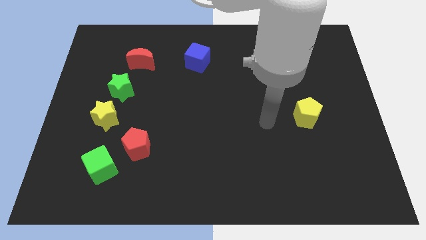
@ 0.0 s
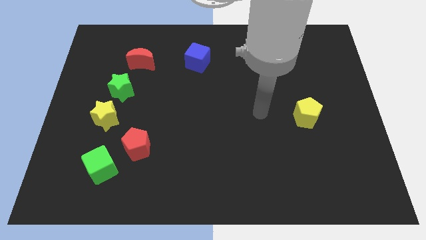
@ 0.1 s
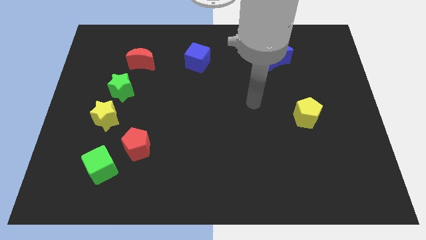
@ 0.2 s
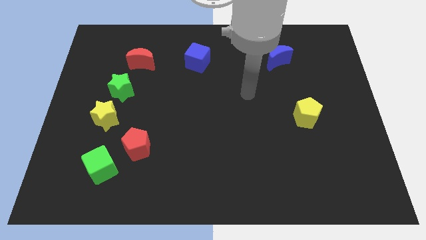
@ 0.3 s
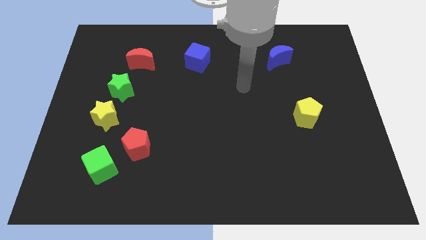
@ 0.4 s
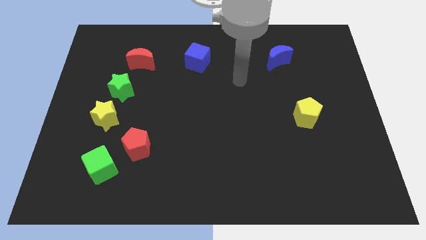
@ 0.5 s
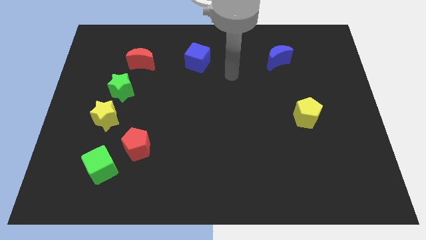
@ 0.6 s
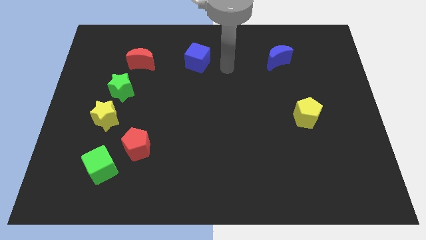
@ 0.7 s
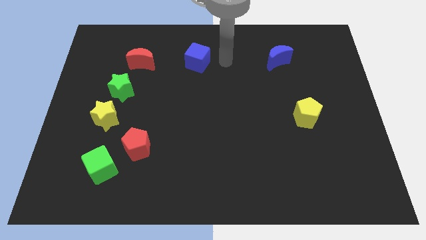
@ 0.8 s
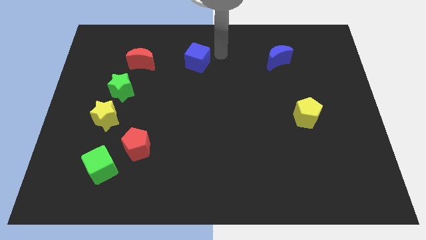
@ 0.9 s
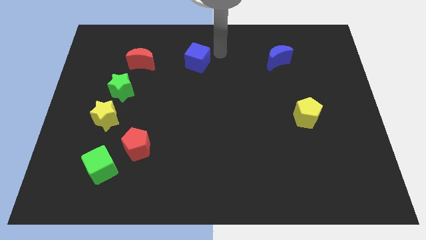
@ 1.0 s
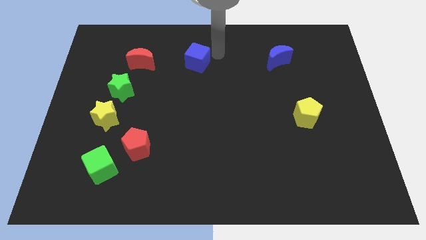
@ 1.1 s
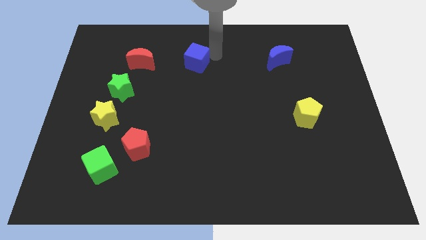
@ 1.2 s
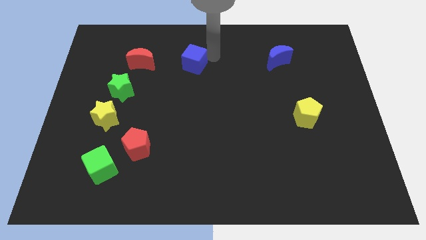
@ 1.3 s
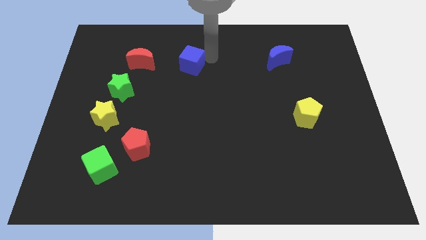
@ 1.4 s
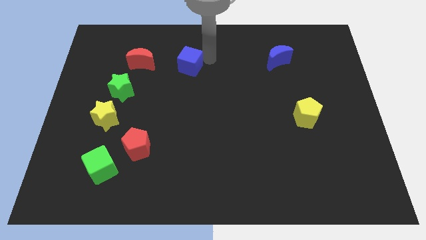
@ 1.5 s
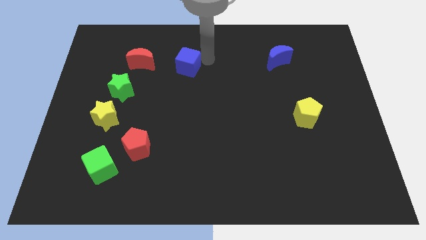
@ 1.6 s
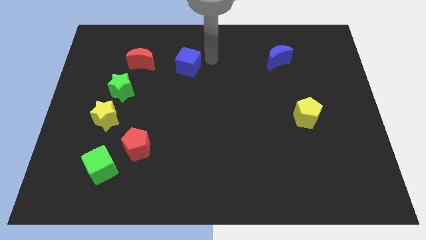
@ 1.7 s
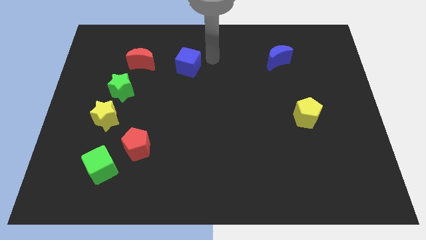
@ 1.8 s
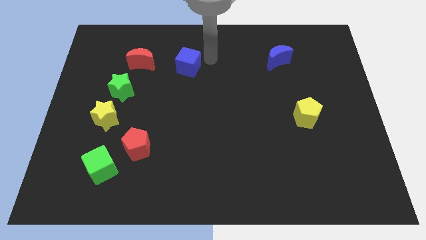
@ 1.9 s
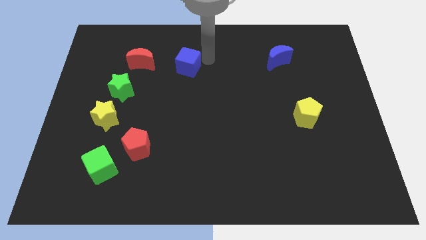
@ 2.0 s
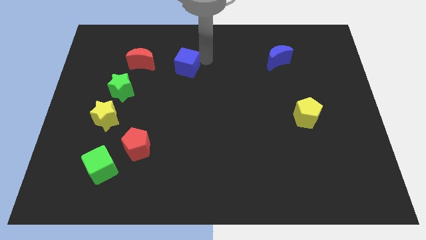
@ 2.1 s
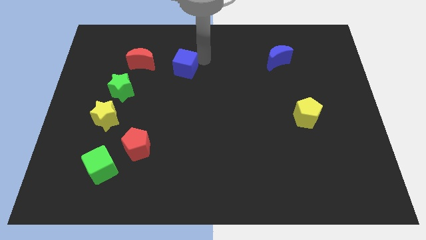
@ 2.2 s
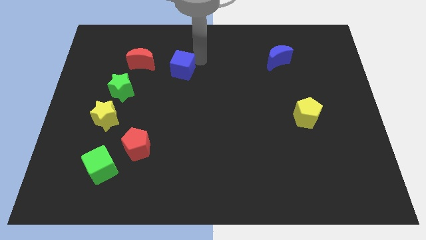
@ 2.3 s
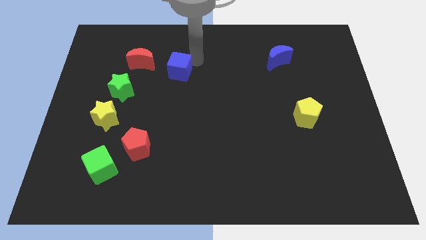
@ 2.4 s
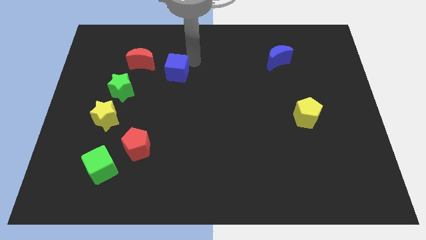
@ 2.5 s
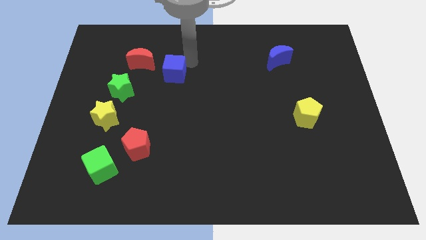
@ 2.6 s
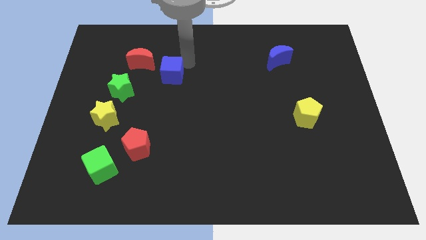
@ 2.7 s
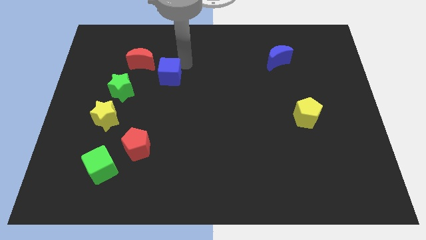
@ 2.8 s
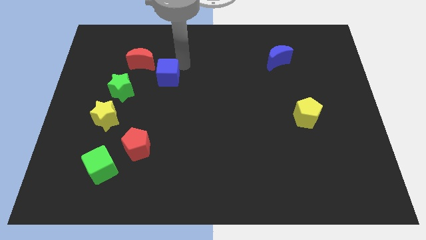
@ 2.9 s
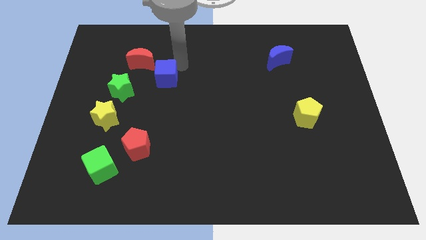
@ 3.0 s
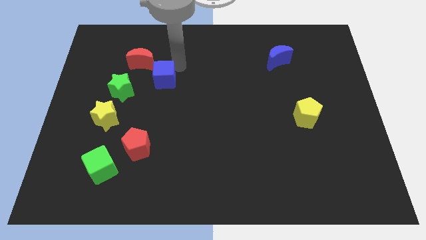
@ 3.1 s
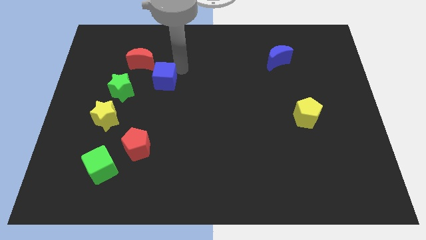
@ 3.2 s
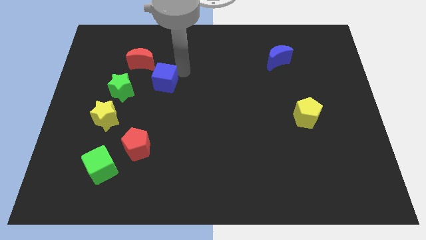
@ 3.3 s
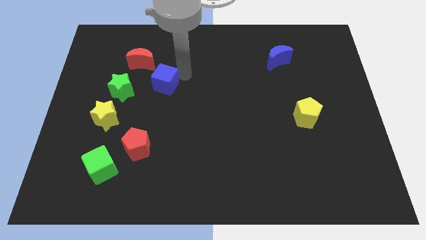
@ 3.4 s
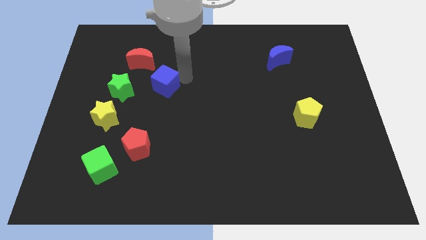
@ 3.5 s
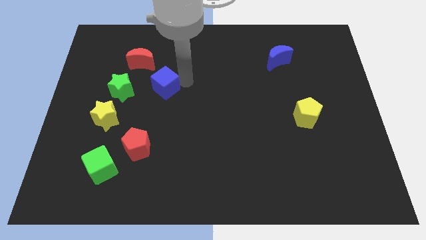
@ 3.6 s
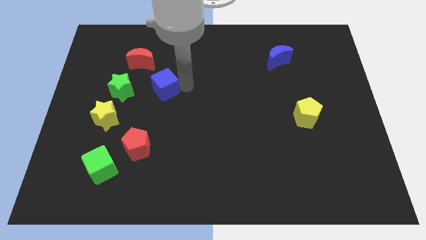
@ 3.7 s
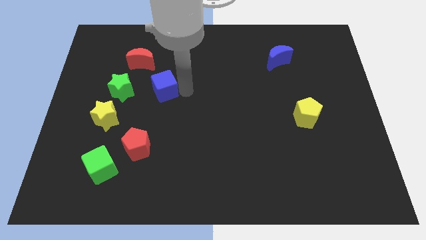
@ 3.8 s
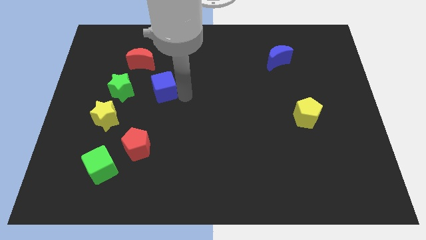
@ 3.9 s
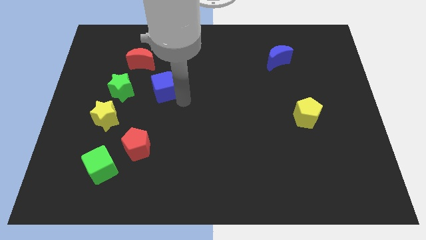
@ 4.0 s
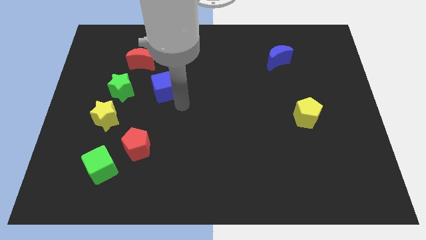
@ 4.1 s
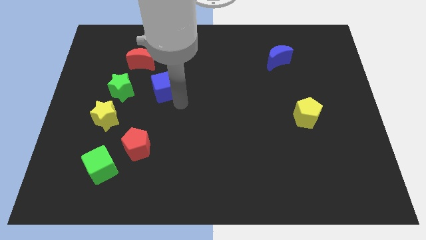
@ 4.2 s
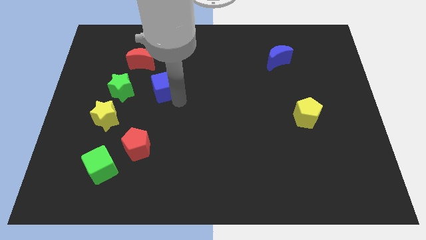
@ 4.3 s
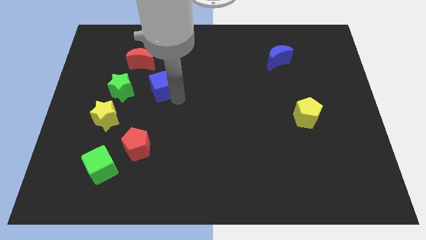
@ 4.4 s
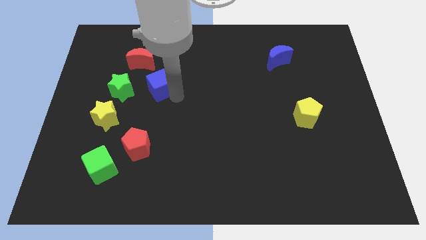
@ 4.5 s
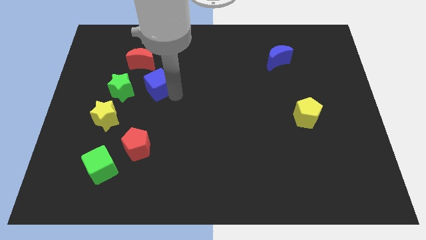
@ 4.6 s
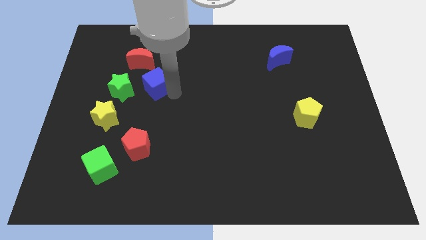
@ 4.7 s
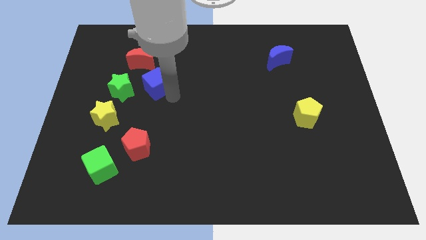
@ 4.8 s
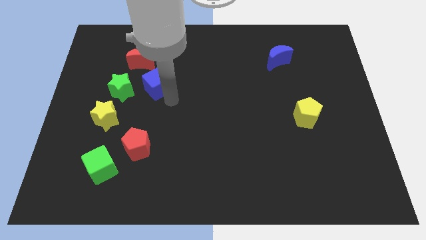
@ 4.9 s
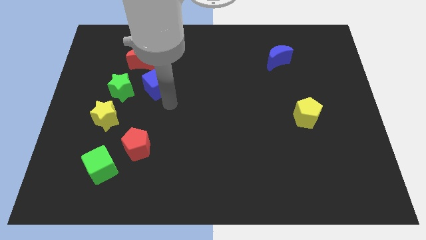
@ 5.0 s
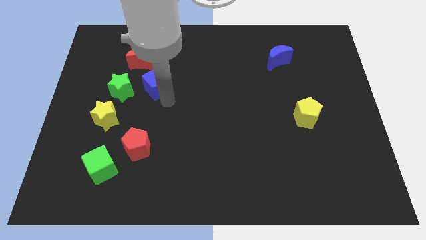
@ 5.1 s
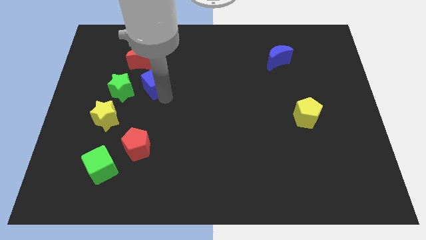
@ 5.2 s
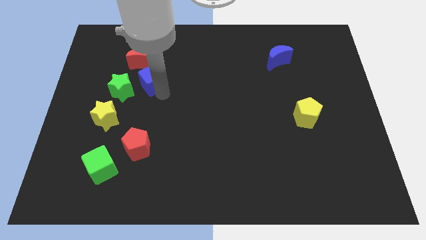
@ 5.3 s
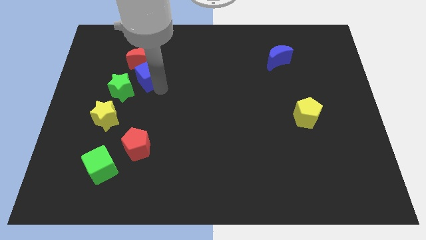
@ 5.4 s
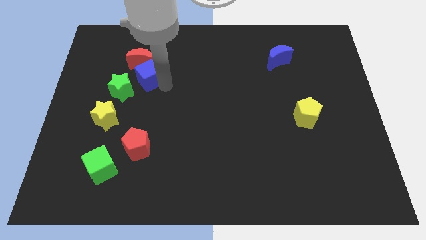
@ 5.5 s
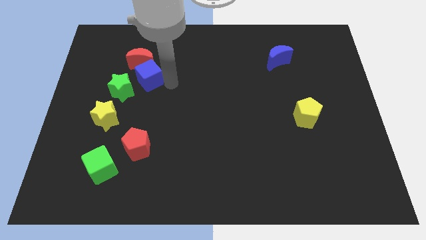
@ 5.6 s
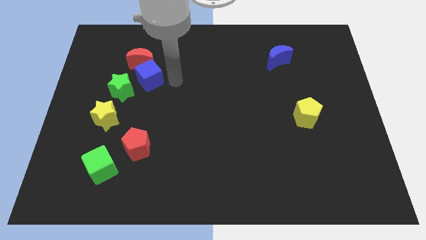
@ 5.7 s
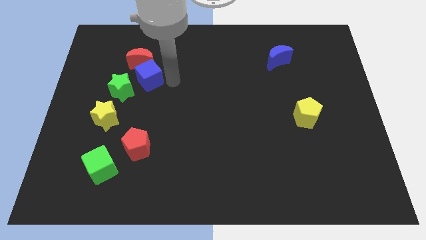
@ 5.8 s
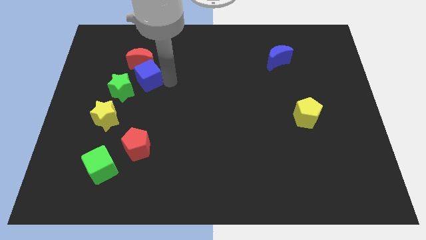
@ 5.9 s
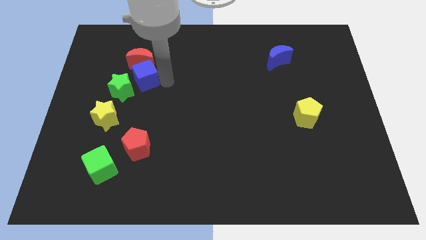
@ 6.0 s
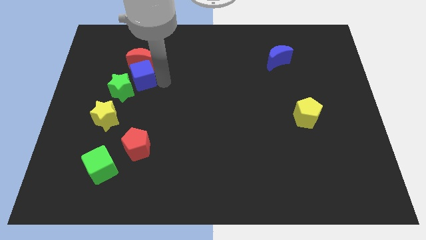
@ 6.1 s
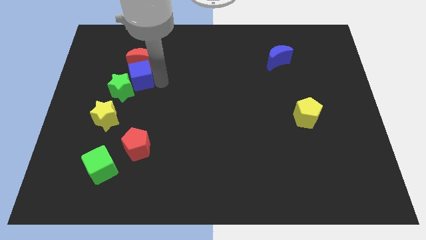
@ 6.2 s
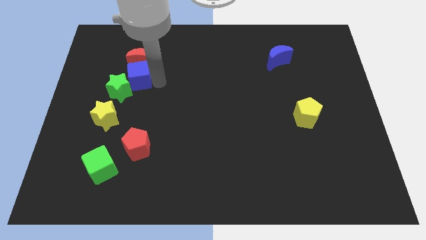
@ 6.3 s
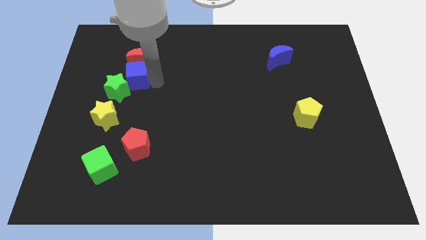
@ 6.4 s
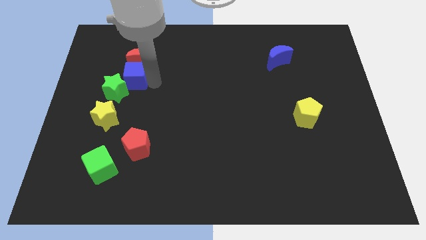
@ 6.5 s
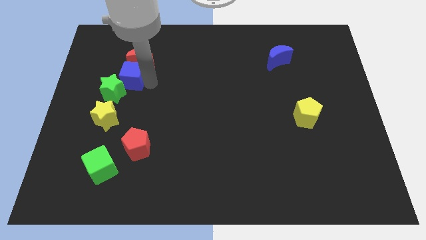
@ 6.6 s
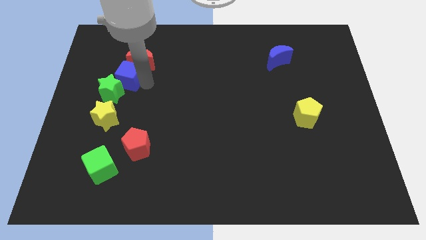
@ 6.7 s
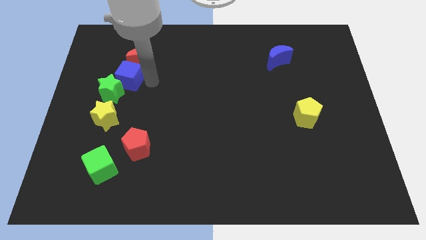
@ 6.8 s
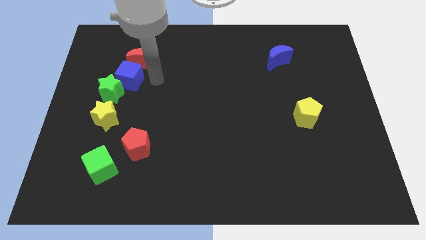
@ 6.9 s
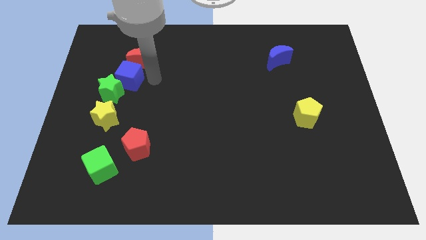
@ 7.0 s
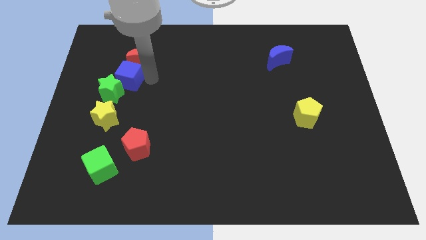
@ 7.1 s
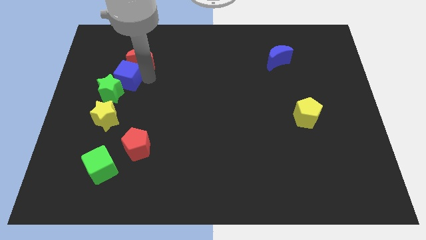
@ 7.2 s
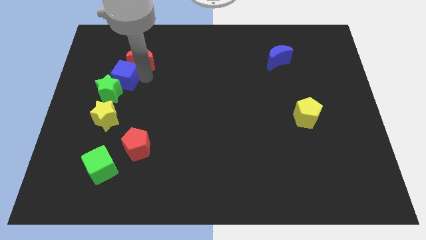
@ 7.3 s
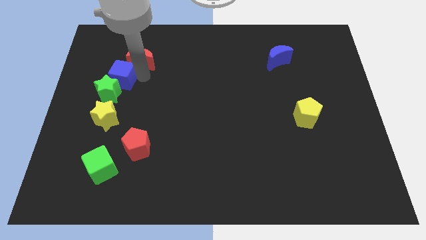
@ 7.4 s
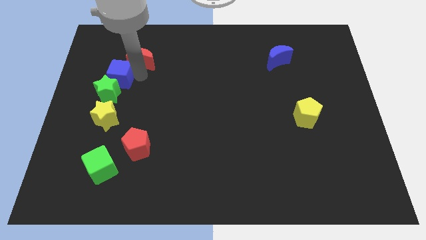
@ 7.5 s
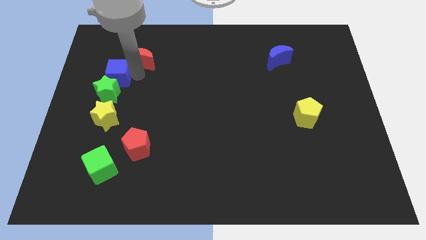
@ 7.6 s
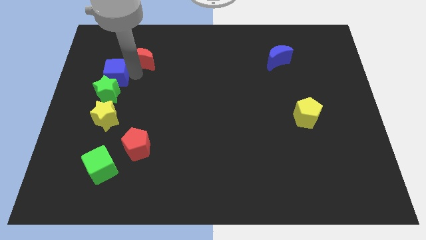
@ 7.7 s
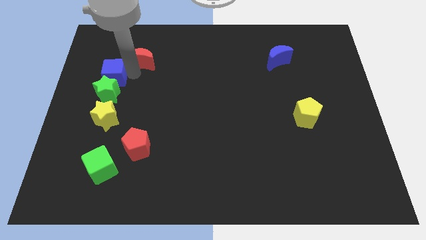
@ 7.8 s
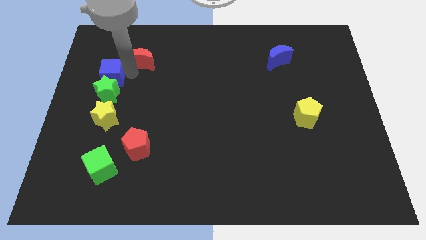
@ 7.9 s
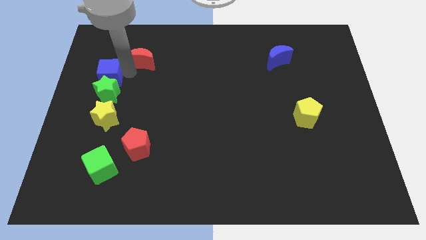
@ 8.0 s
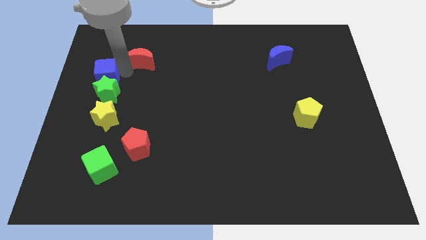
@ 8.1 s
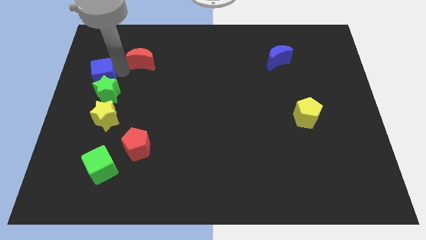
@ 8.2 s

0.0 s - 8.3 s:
push the blue cube to the center left
